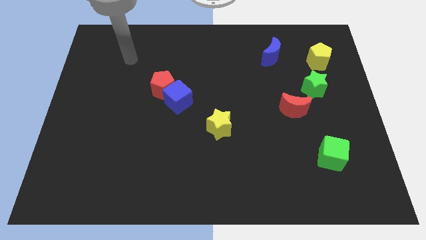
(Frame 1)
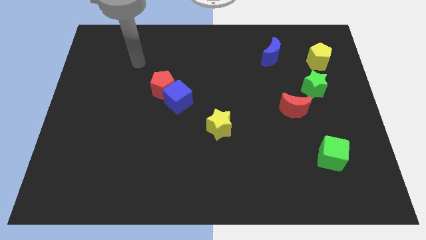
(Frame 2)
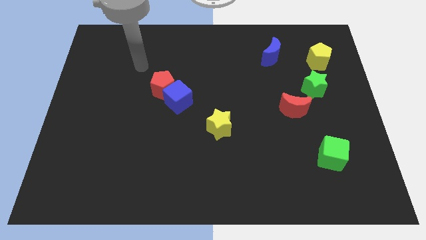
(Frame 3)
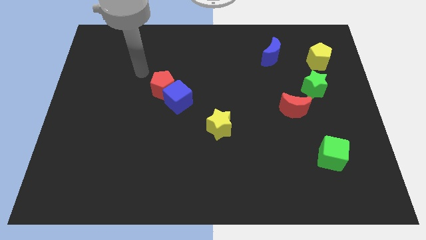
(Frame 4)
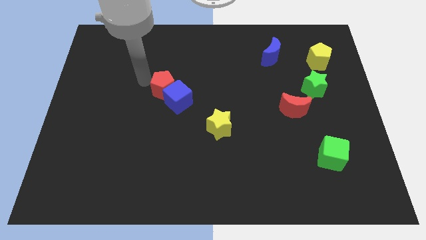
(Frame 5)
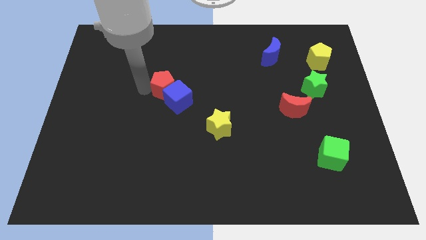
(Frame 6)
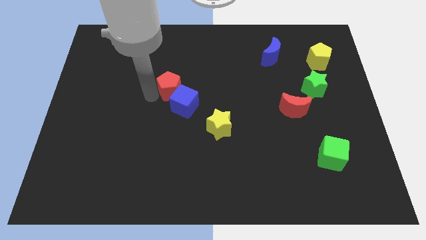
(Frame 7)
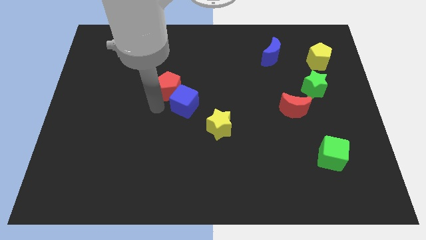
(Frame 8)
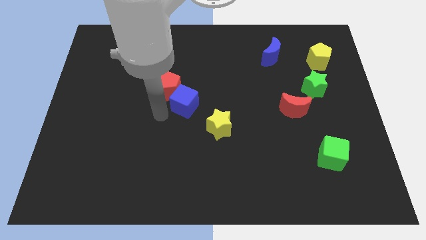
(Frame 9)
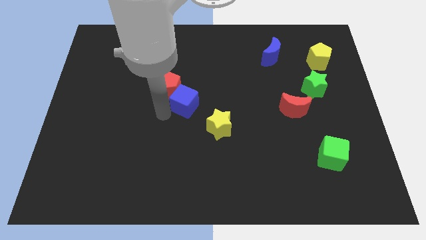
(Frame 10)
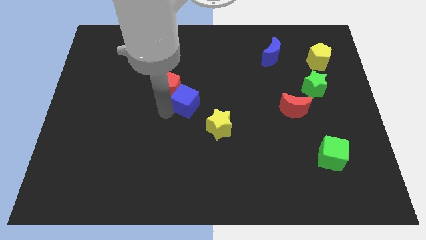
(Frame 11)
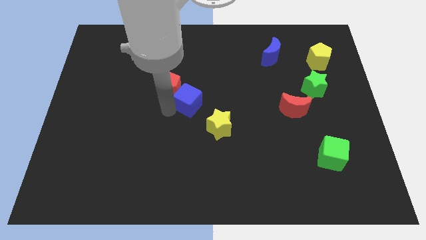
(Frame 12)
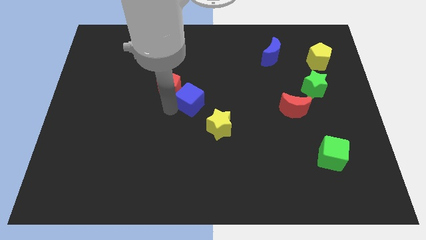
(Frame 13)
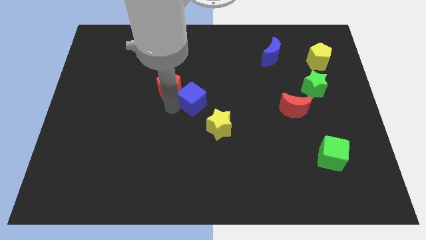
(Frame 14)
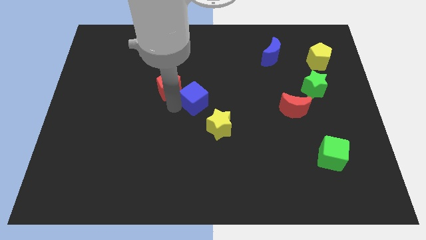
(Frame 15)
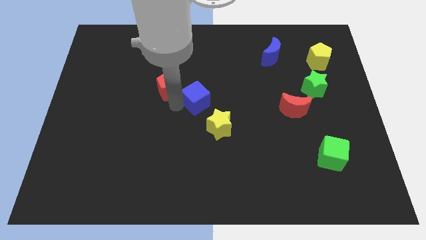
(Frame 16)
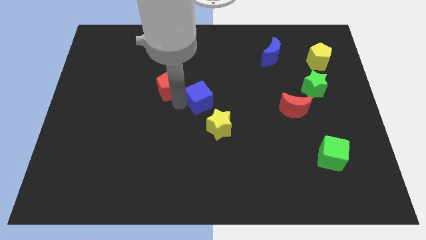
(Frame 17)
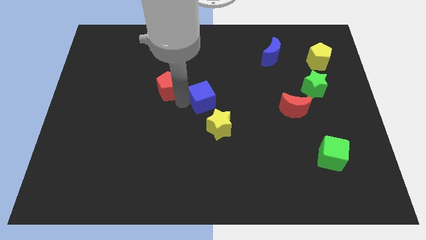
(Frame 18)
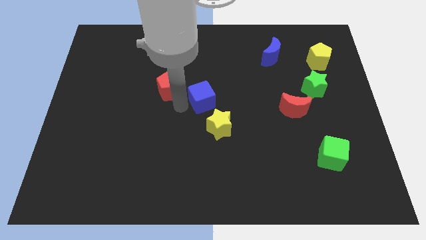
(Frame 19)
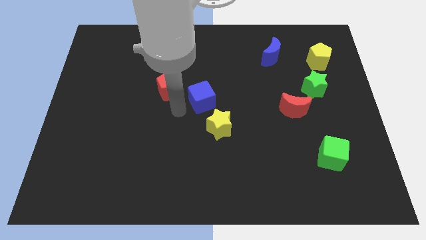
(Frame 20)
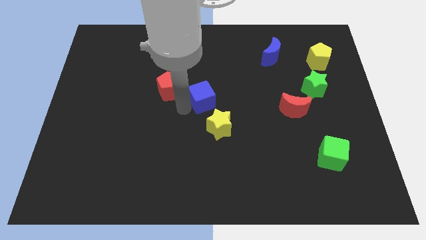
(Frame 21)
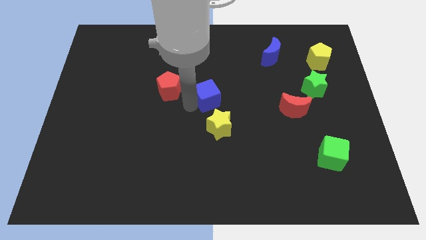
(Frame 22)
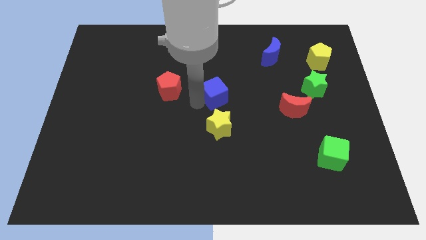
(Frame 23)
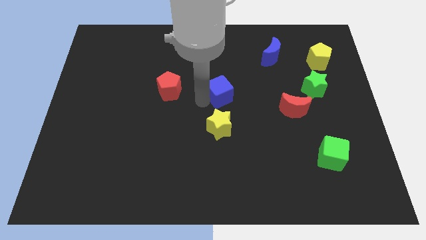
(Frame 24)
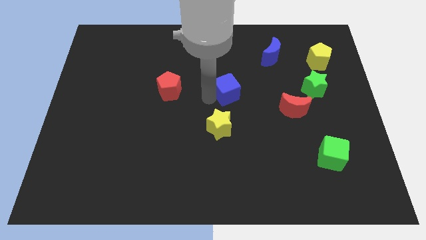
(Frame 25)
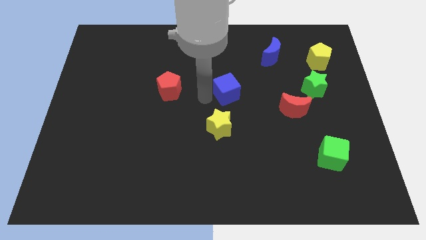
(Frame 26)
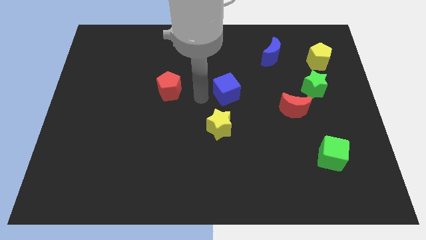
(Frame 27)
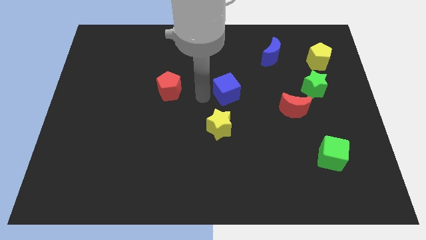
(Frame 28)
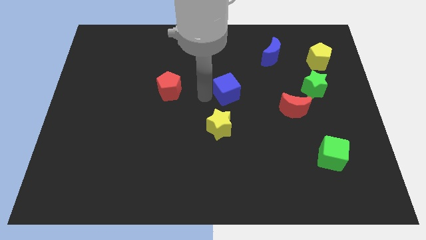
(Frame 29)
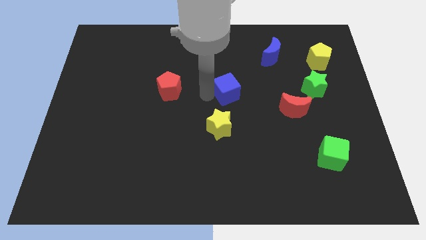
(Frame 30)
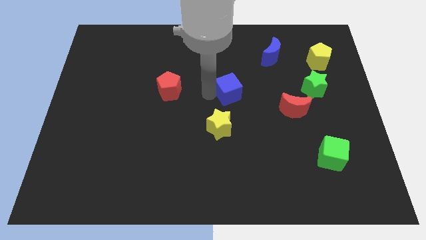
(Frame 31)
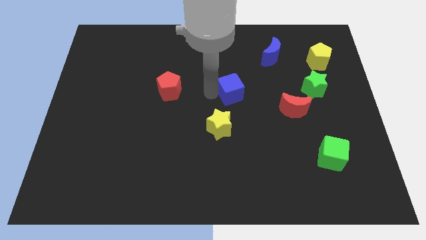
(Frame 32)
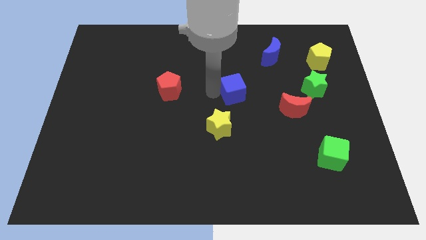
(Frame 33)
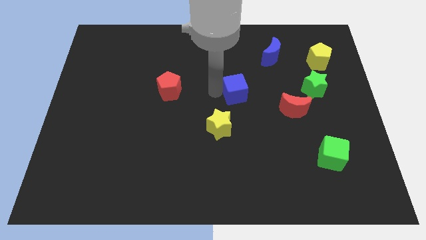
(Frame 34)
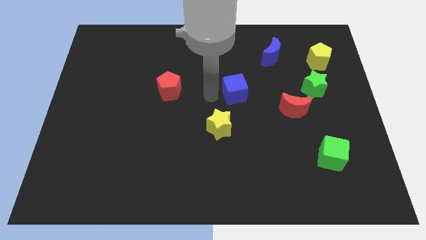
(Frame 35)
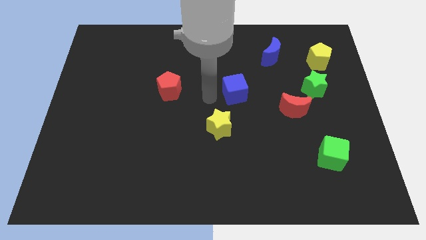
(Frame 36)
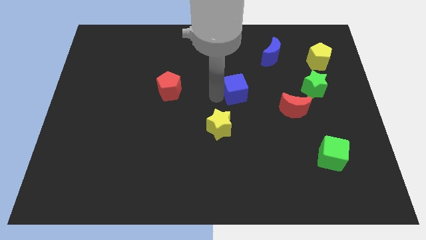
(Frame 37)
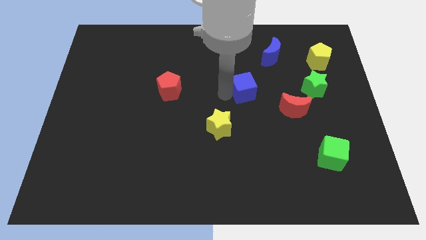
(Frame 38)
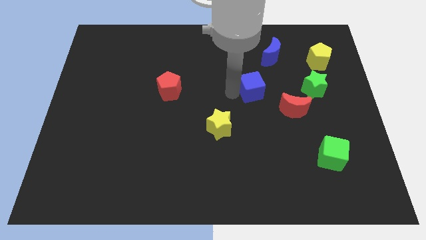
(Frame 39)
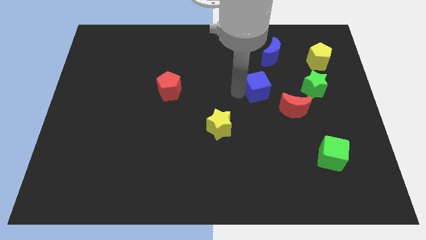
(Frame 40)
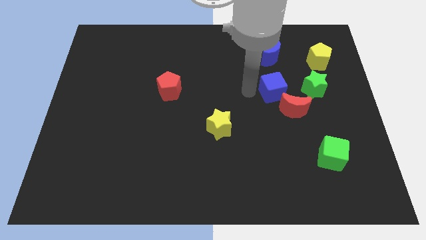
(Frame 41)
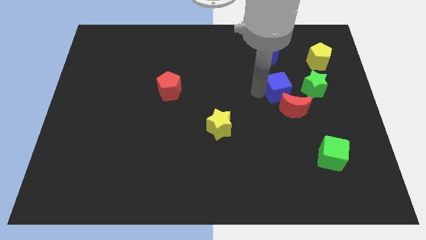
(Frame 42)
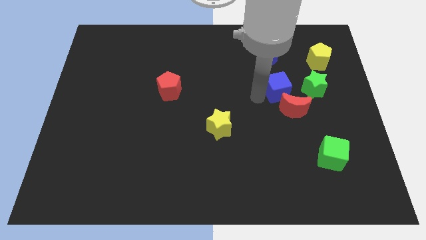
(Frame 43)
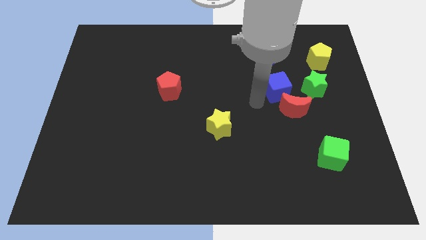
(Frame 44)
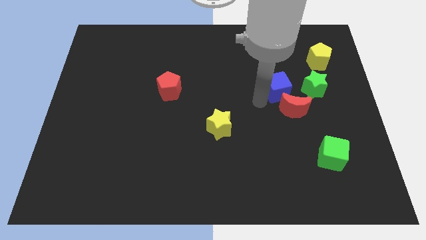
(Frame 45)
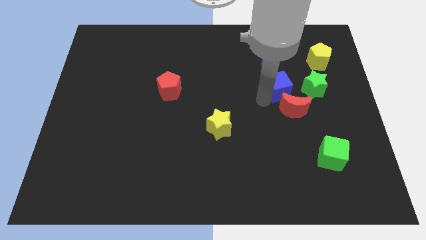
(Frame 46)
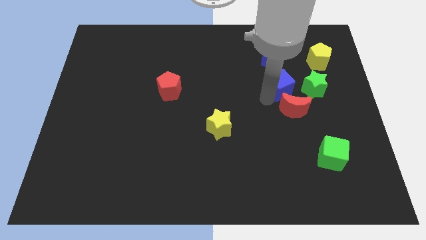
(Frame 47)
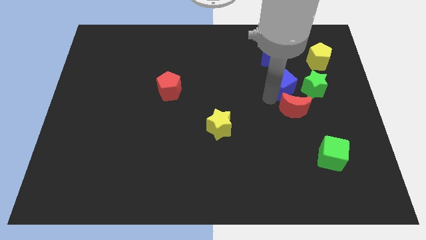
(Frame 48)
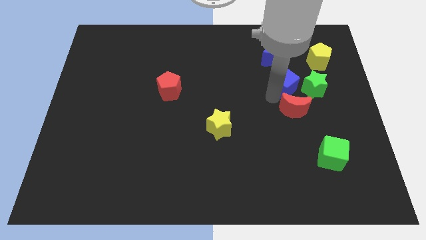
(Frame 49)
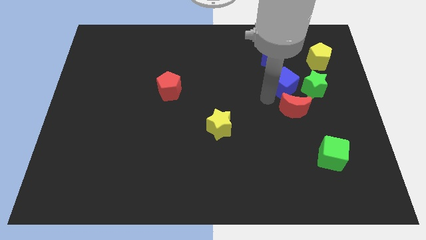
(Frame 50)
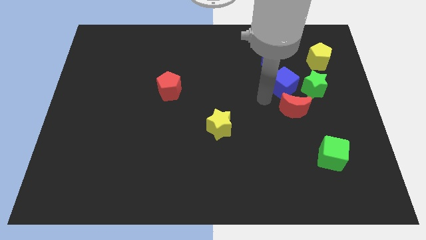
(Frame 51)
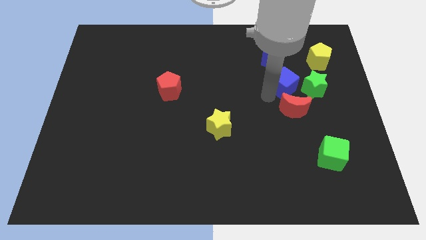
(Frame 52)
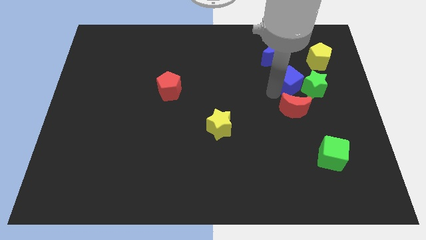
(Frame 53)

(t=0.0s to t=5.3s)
push the blue cube to the bottom left of the yellow pentagon

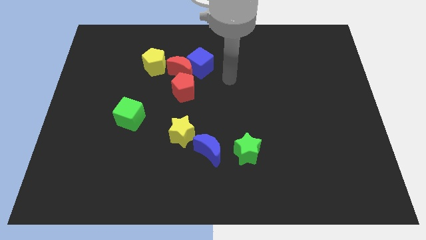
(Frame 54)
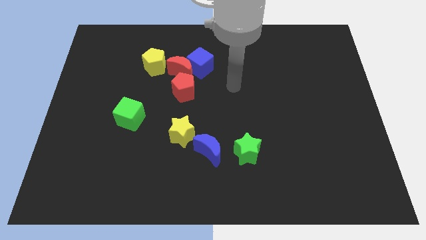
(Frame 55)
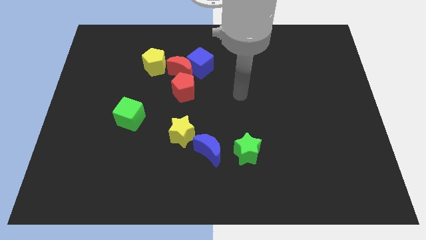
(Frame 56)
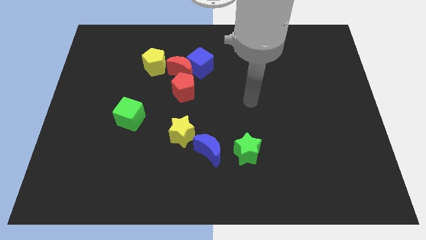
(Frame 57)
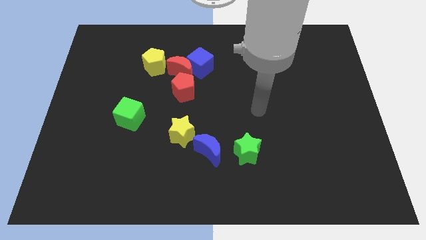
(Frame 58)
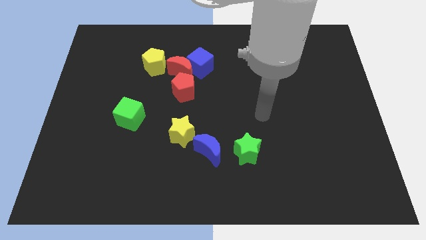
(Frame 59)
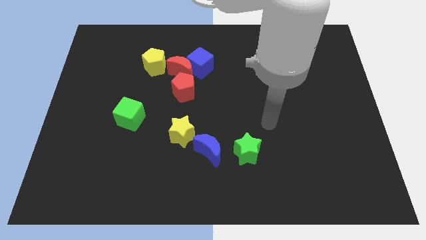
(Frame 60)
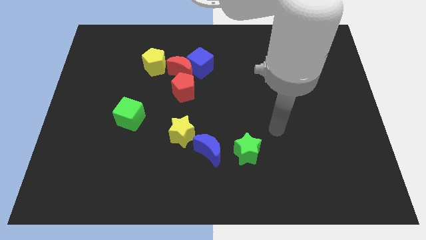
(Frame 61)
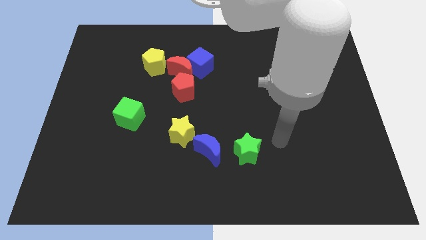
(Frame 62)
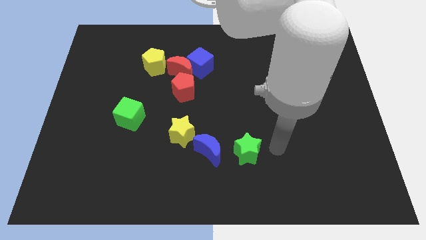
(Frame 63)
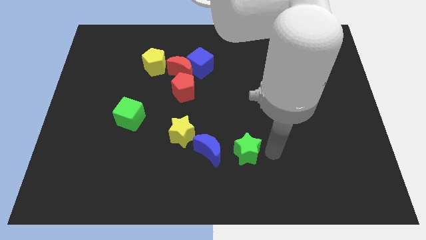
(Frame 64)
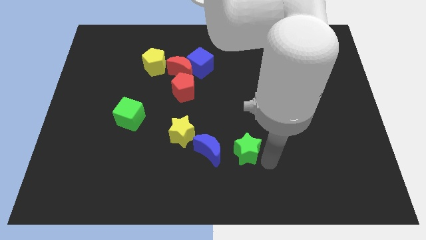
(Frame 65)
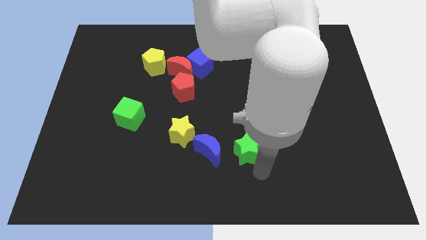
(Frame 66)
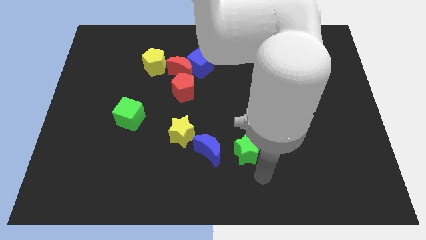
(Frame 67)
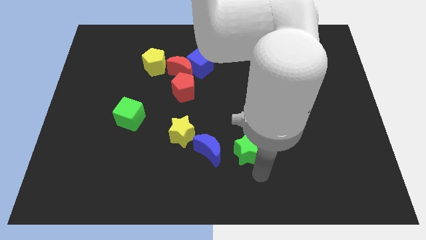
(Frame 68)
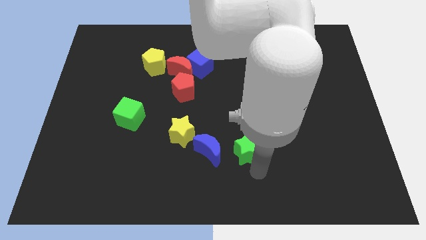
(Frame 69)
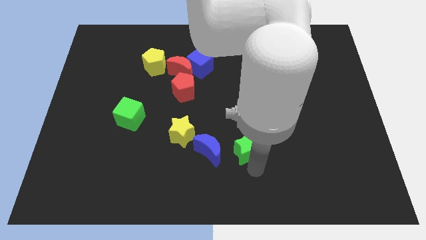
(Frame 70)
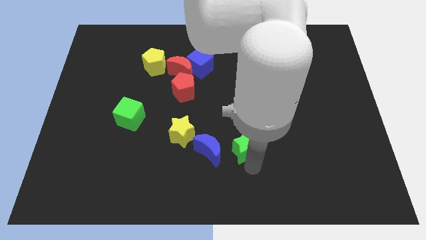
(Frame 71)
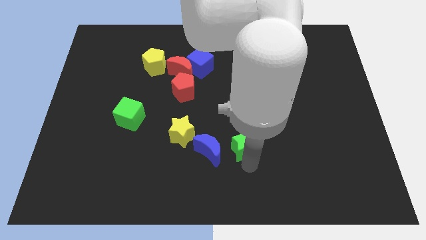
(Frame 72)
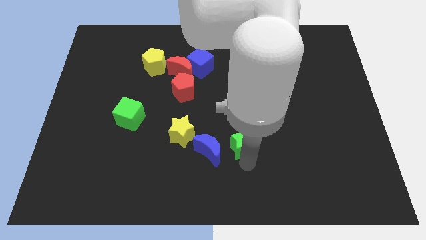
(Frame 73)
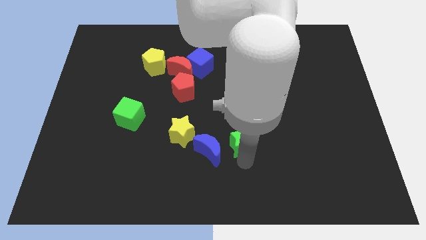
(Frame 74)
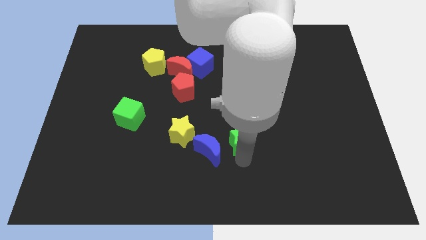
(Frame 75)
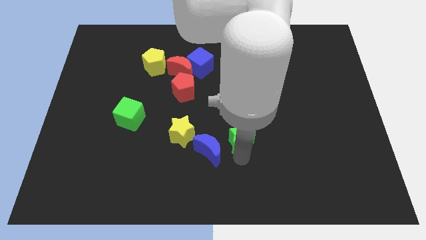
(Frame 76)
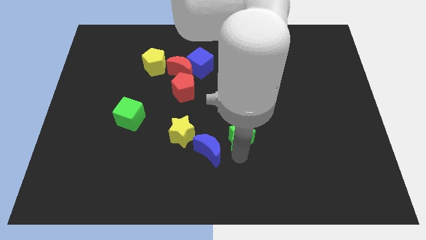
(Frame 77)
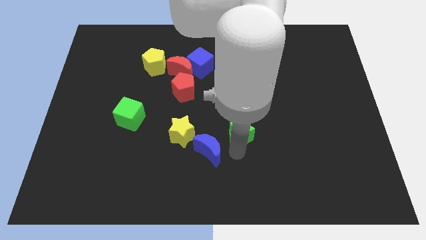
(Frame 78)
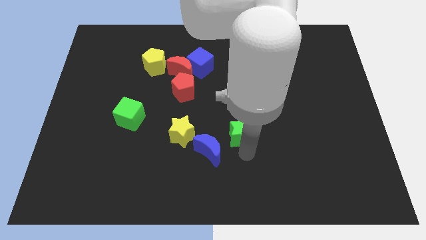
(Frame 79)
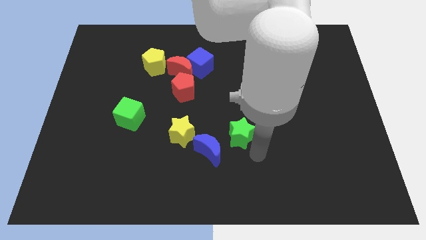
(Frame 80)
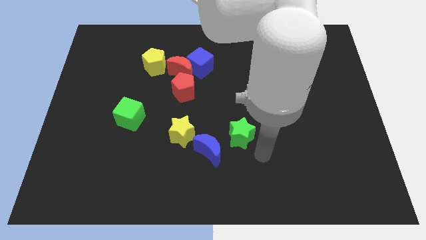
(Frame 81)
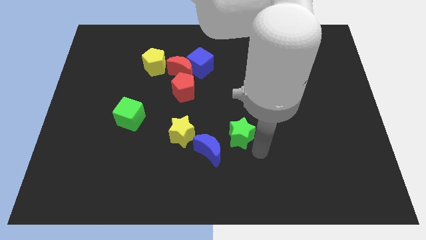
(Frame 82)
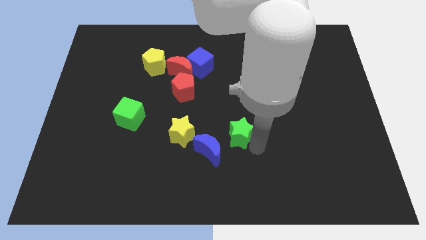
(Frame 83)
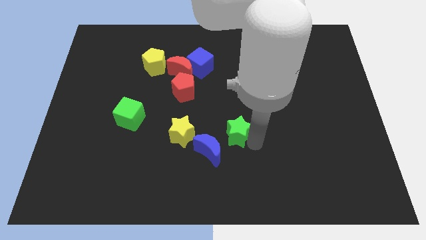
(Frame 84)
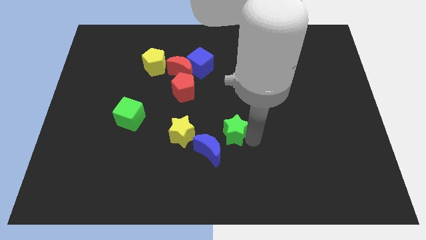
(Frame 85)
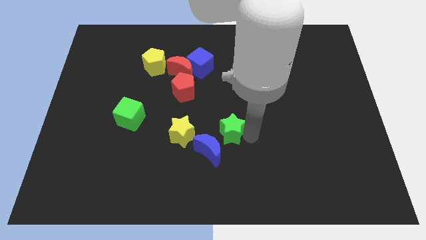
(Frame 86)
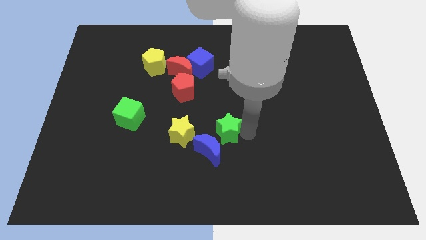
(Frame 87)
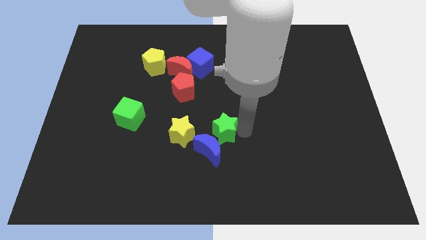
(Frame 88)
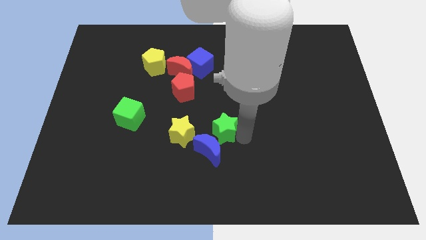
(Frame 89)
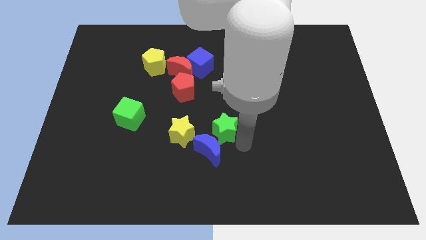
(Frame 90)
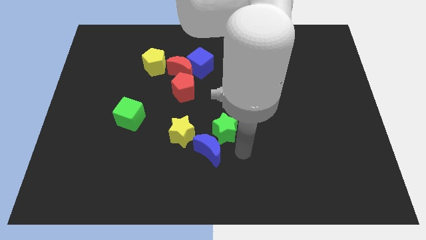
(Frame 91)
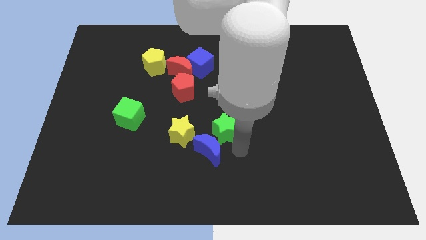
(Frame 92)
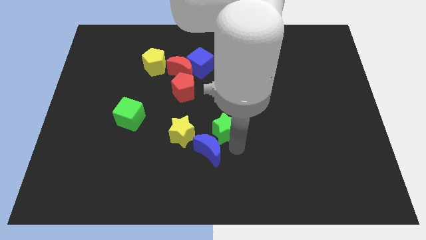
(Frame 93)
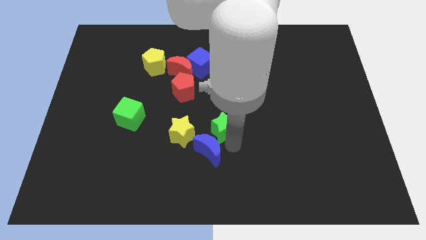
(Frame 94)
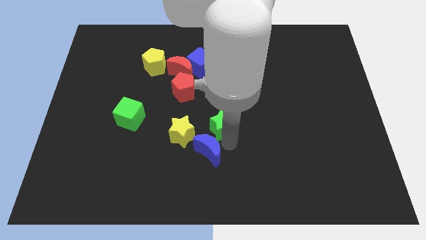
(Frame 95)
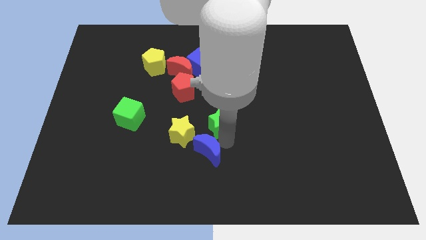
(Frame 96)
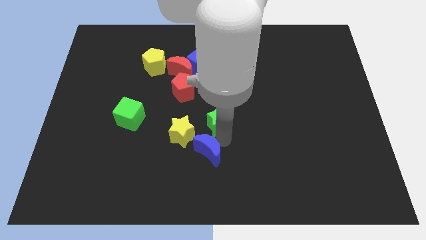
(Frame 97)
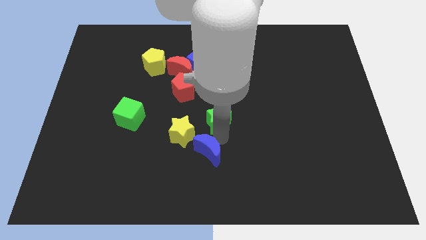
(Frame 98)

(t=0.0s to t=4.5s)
move the green star diagonally down and to the right of the red pentagon
